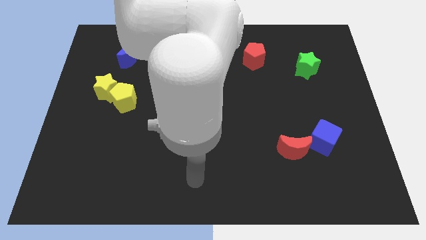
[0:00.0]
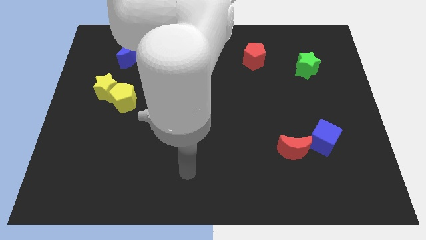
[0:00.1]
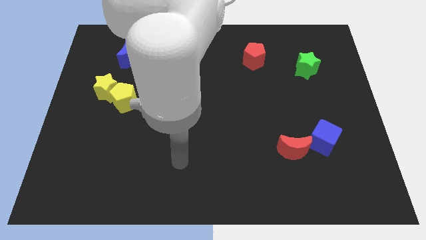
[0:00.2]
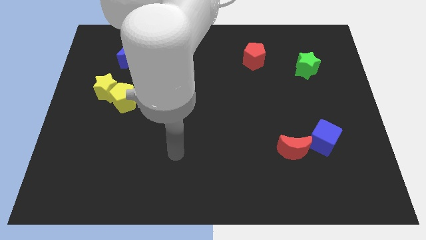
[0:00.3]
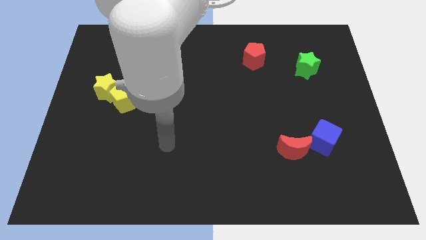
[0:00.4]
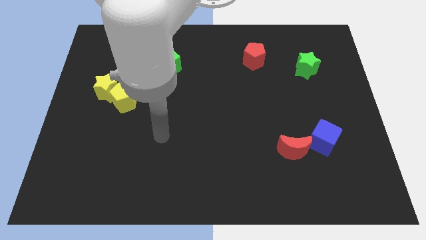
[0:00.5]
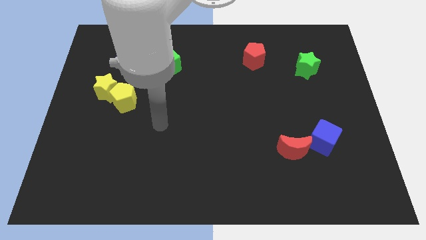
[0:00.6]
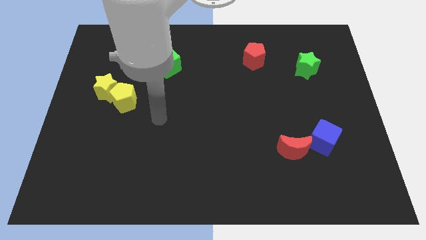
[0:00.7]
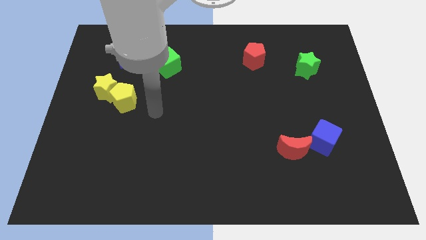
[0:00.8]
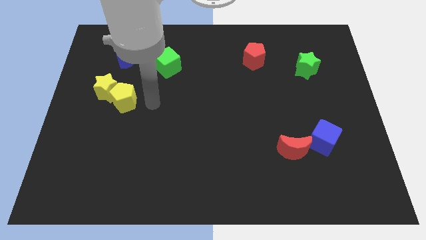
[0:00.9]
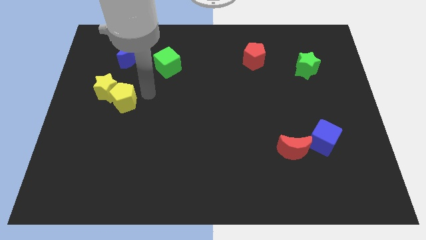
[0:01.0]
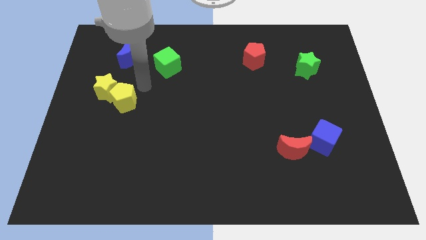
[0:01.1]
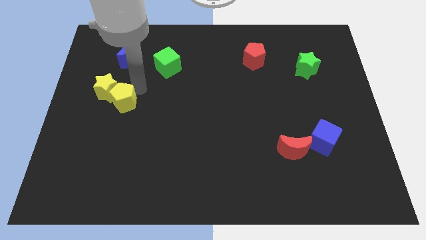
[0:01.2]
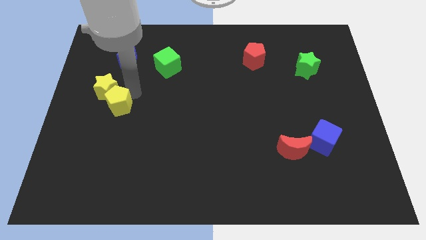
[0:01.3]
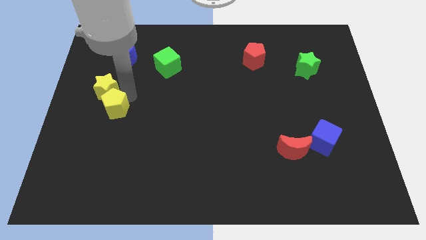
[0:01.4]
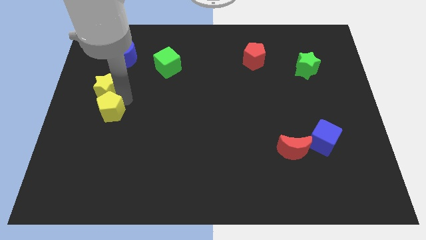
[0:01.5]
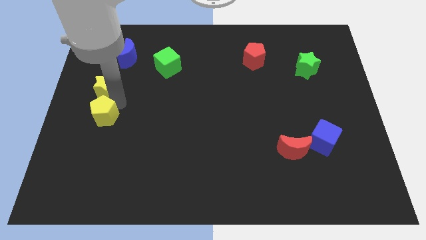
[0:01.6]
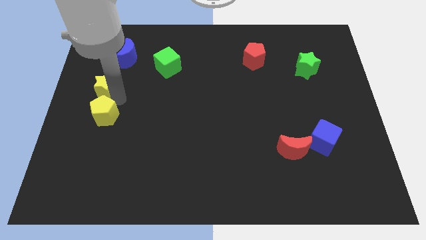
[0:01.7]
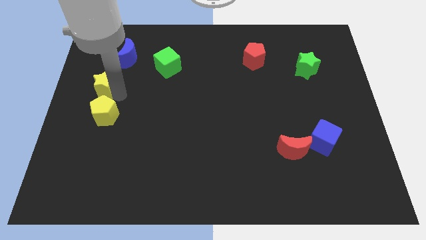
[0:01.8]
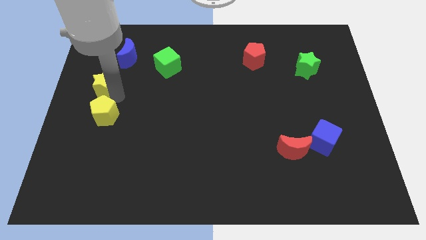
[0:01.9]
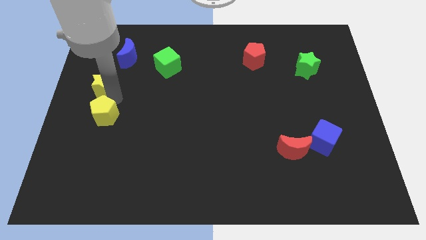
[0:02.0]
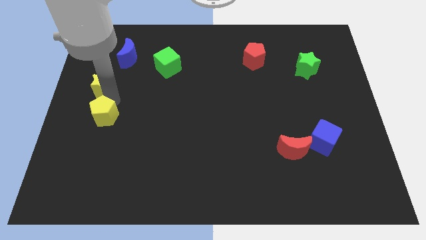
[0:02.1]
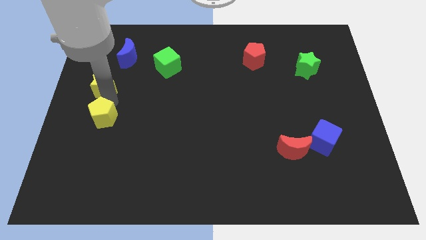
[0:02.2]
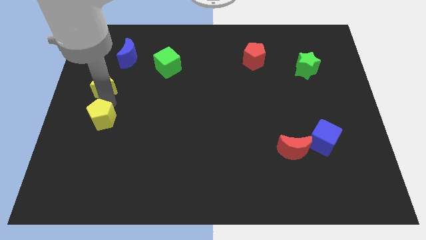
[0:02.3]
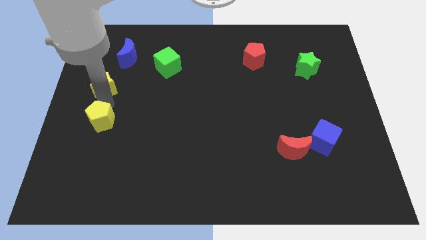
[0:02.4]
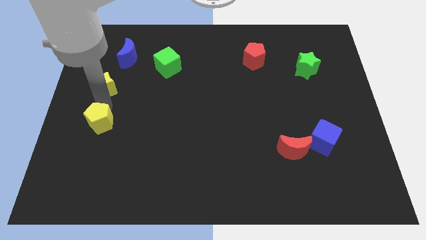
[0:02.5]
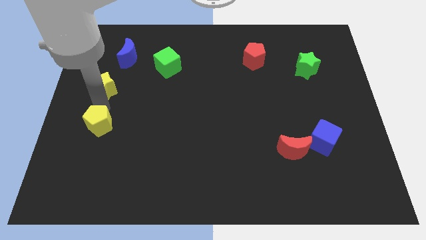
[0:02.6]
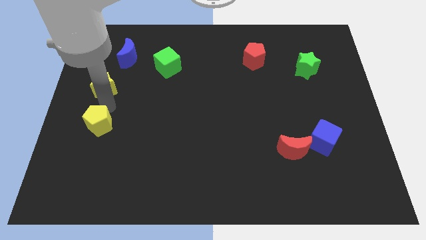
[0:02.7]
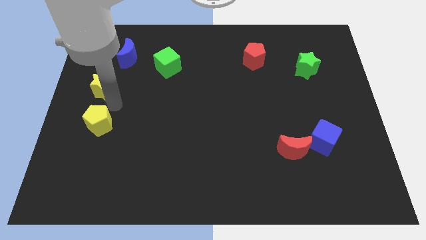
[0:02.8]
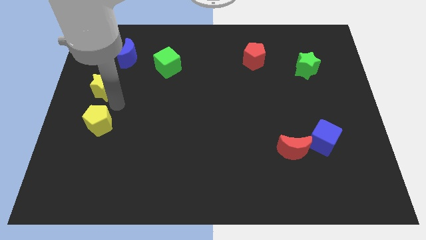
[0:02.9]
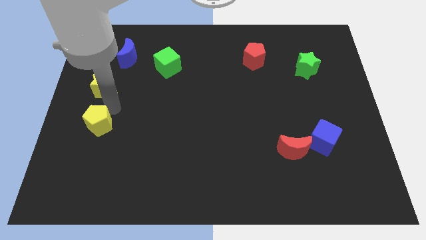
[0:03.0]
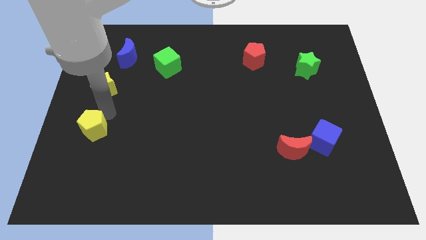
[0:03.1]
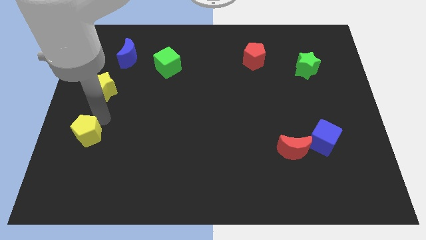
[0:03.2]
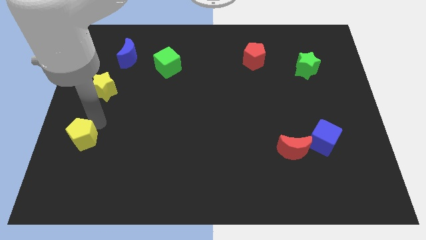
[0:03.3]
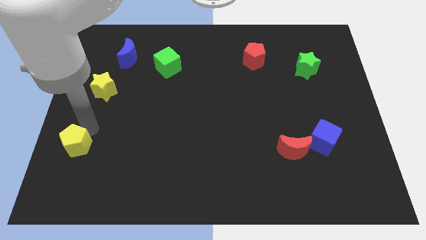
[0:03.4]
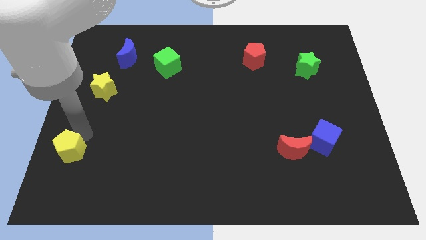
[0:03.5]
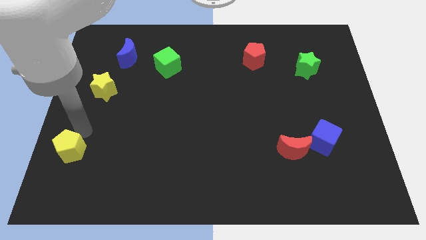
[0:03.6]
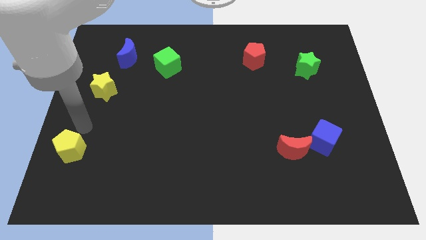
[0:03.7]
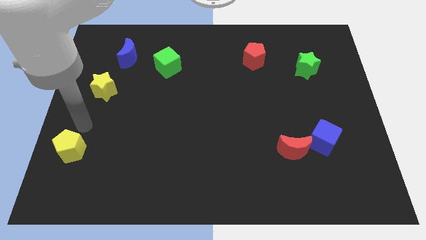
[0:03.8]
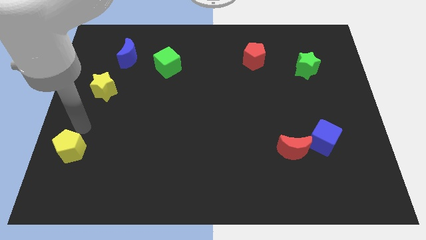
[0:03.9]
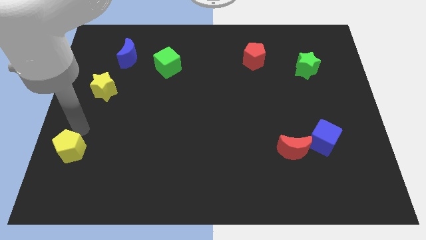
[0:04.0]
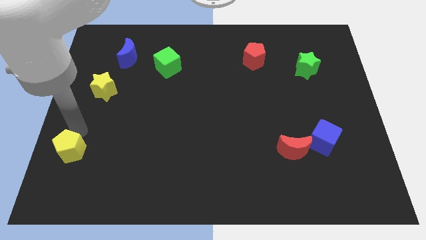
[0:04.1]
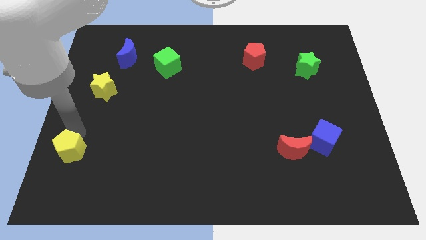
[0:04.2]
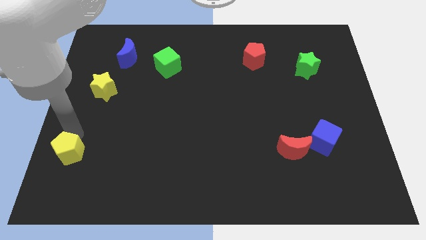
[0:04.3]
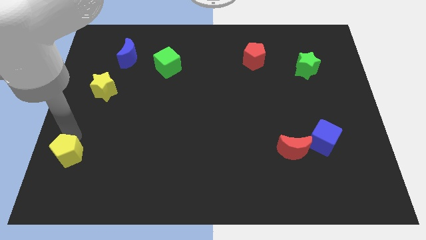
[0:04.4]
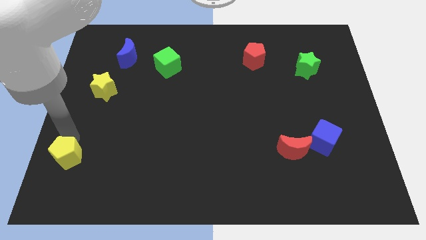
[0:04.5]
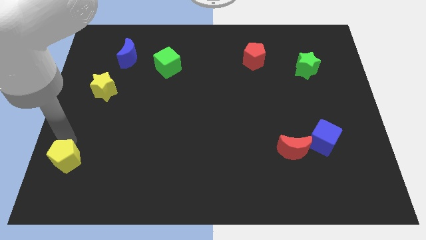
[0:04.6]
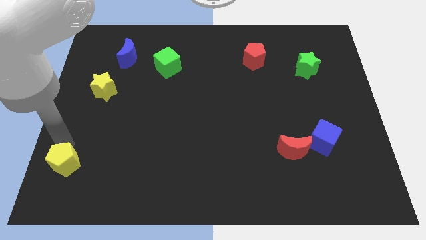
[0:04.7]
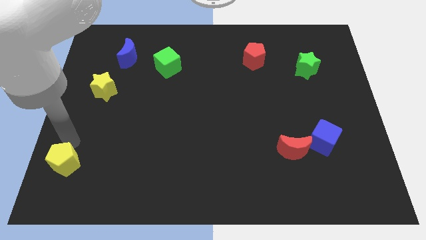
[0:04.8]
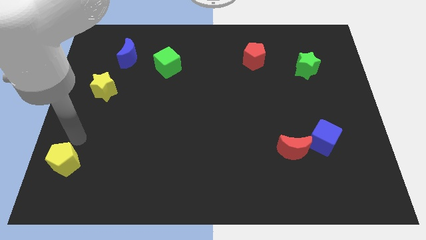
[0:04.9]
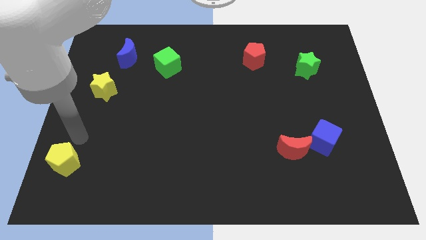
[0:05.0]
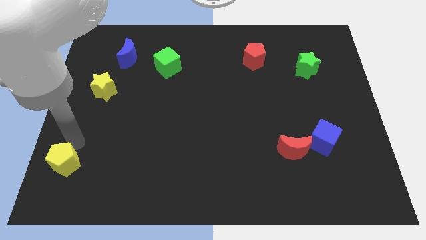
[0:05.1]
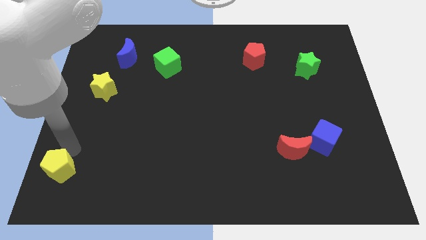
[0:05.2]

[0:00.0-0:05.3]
move the yellow pentagon to the bottom left of the board

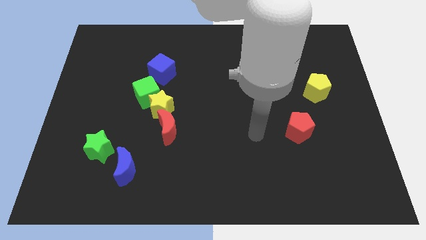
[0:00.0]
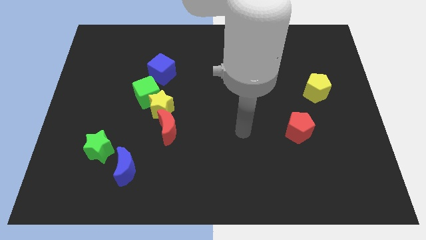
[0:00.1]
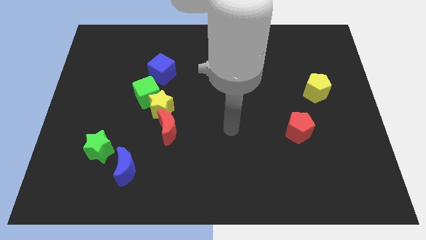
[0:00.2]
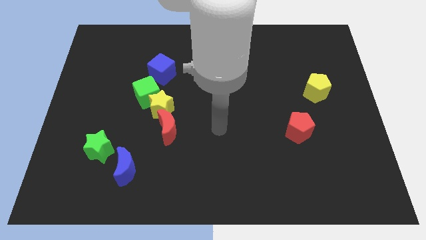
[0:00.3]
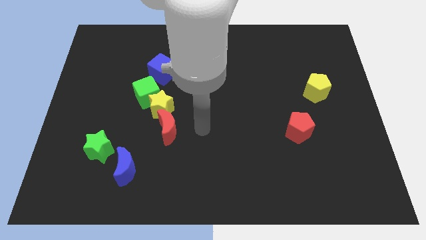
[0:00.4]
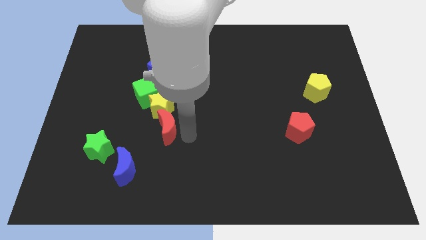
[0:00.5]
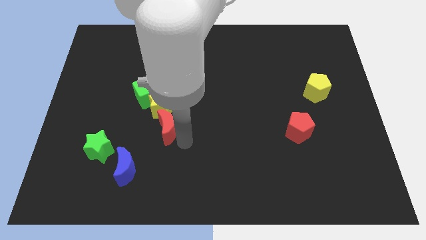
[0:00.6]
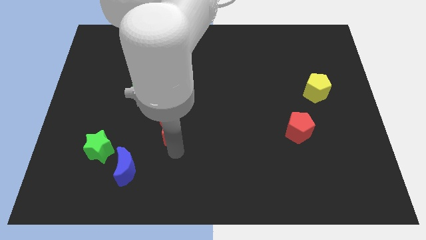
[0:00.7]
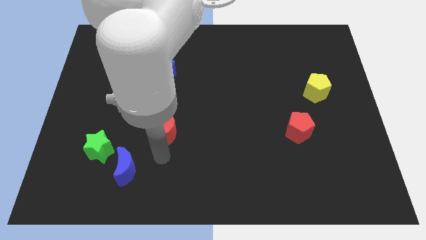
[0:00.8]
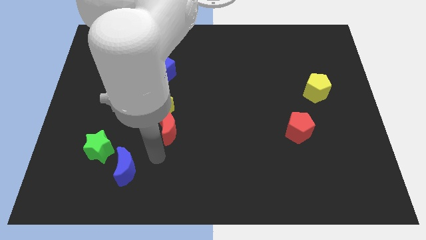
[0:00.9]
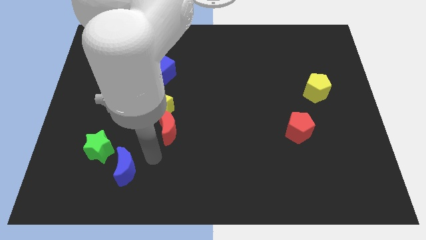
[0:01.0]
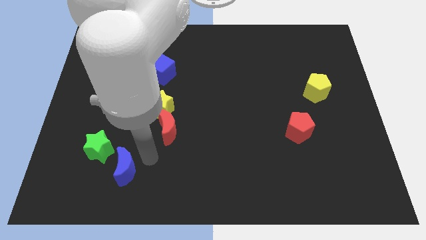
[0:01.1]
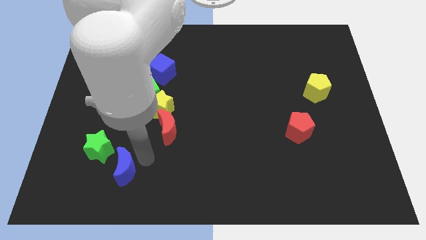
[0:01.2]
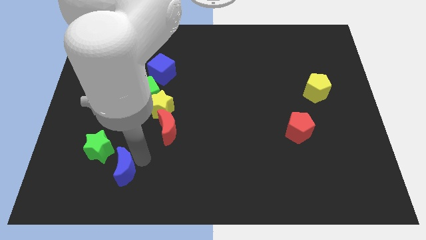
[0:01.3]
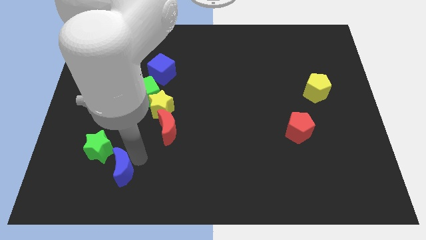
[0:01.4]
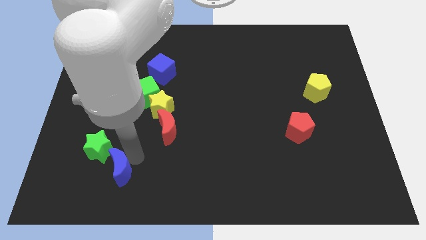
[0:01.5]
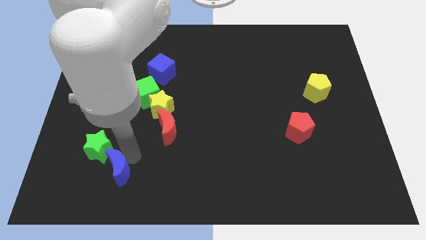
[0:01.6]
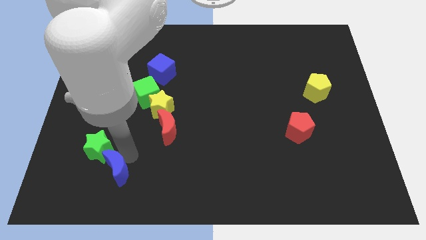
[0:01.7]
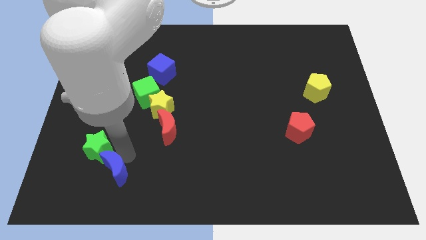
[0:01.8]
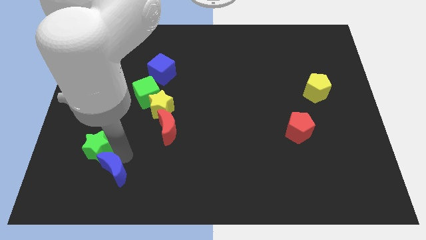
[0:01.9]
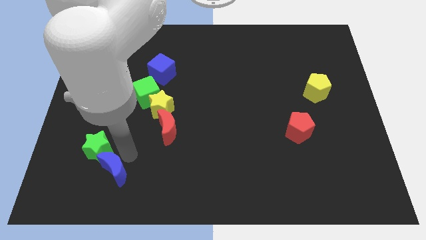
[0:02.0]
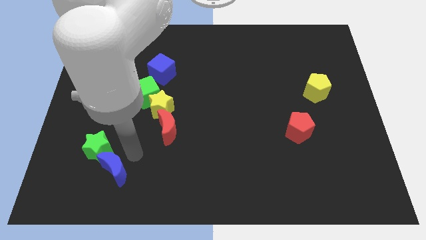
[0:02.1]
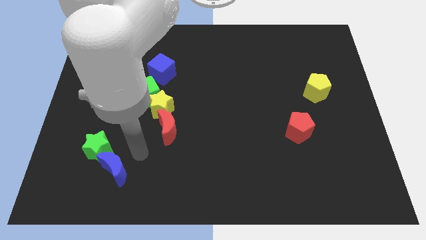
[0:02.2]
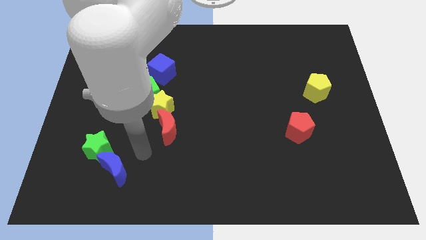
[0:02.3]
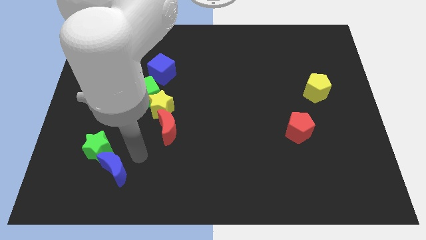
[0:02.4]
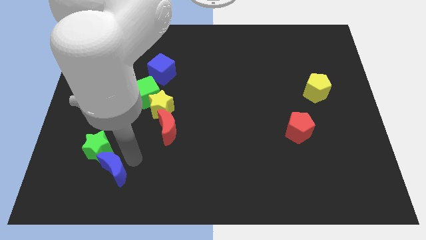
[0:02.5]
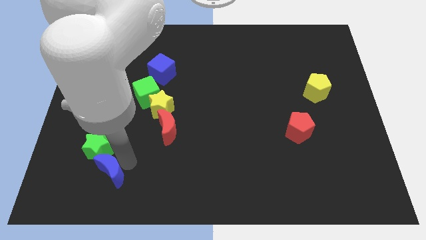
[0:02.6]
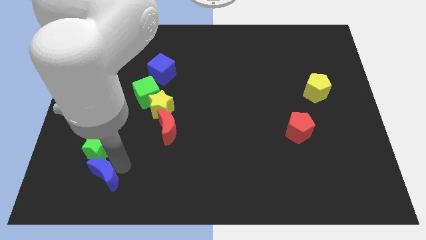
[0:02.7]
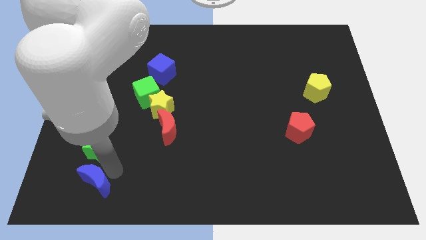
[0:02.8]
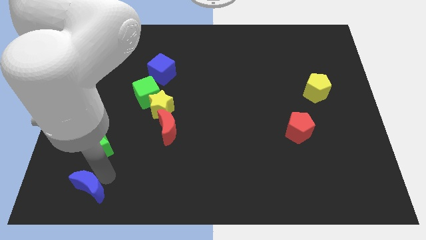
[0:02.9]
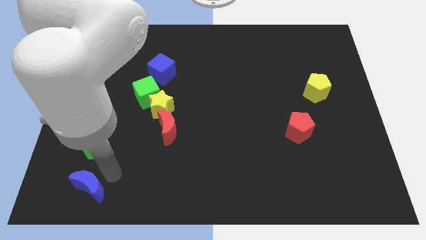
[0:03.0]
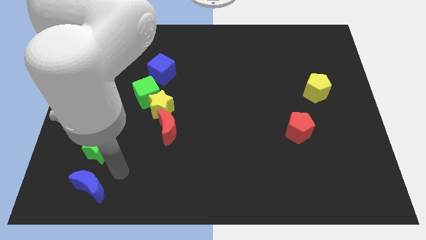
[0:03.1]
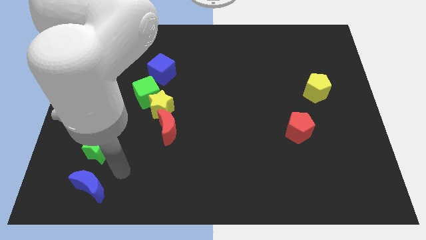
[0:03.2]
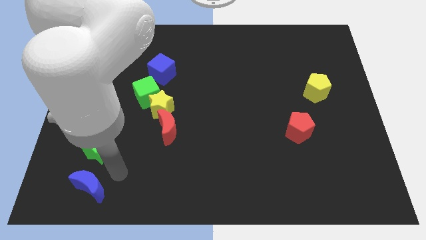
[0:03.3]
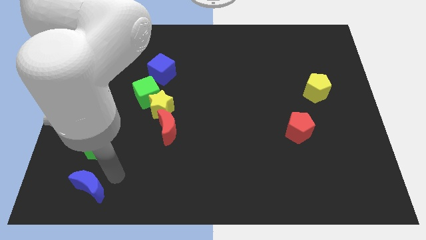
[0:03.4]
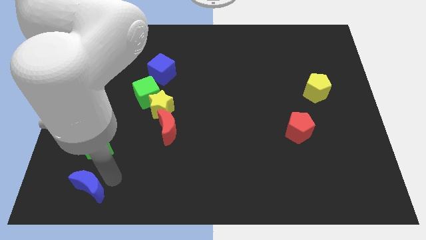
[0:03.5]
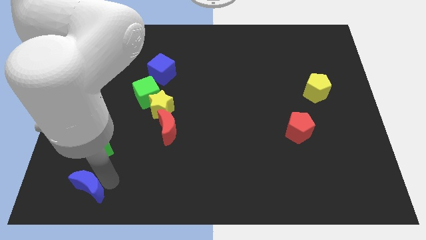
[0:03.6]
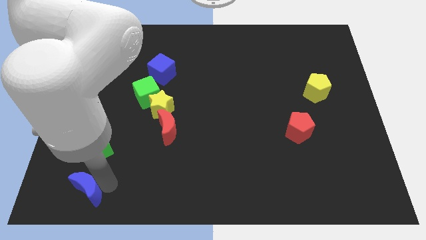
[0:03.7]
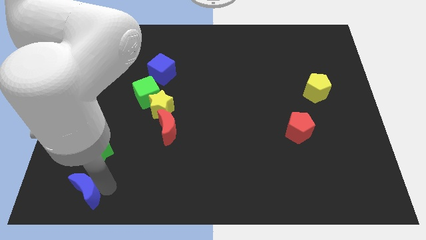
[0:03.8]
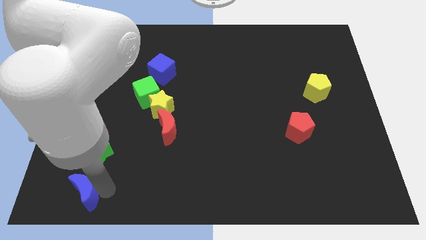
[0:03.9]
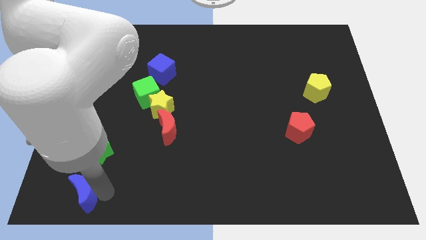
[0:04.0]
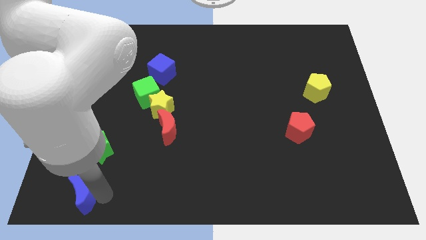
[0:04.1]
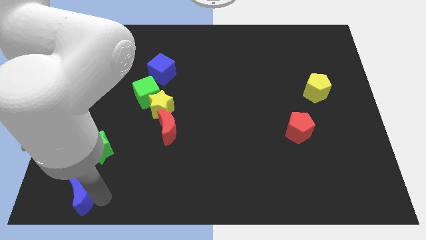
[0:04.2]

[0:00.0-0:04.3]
move the blue moon to the bottom left corner
